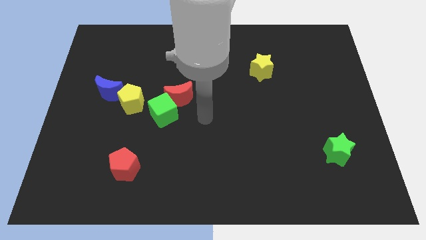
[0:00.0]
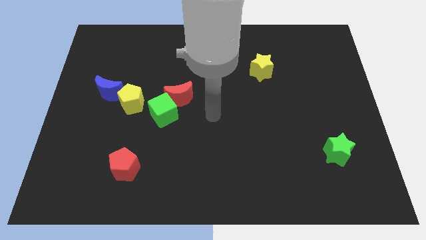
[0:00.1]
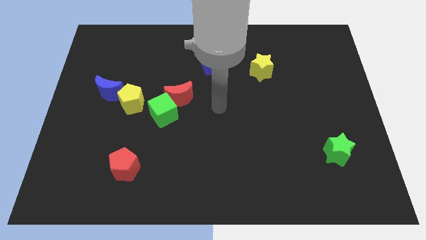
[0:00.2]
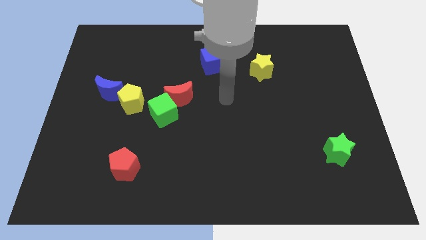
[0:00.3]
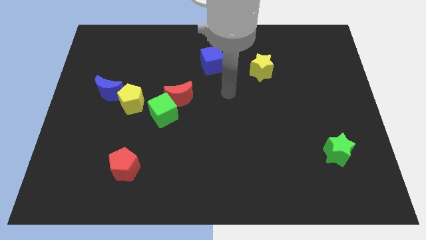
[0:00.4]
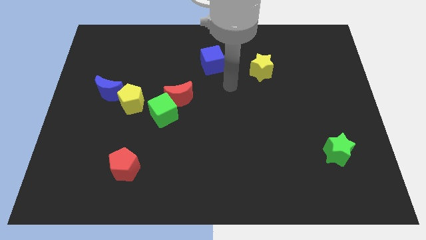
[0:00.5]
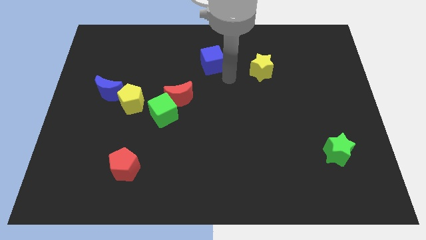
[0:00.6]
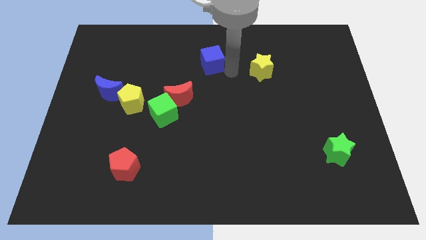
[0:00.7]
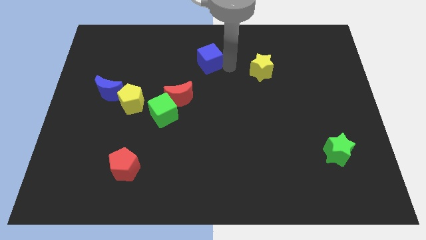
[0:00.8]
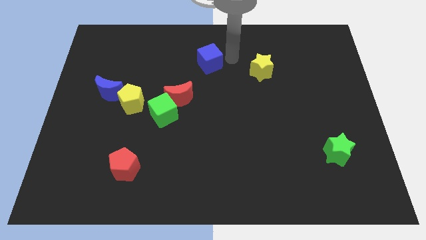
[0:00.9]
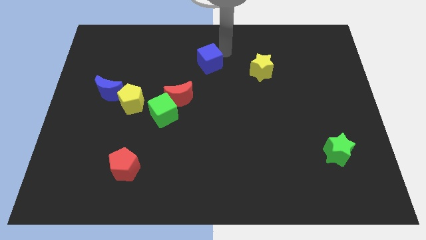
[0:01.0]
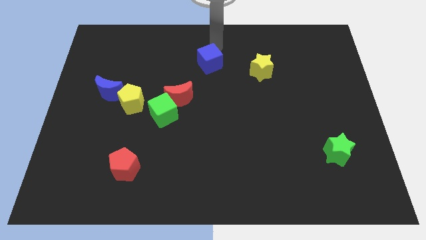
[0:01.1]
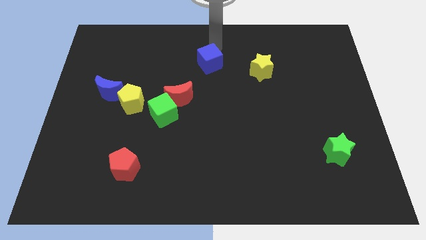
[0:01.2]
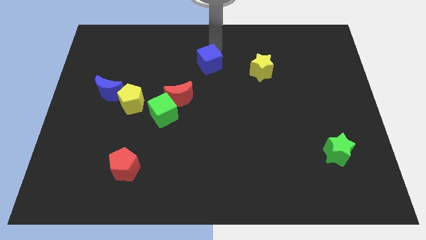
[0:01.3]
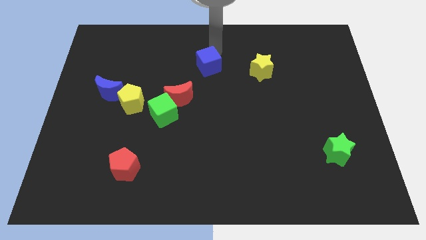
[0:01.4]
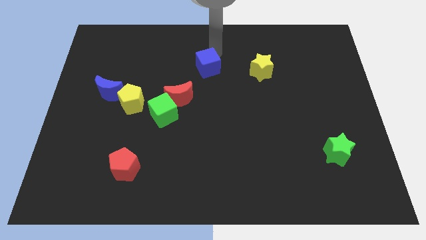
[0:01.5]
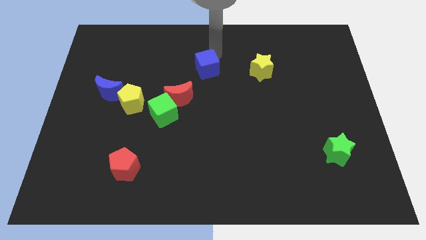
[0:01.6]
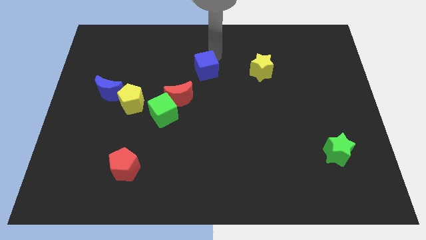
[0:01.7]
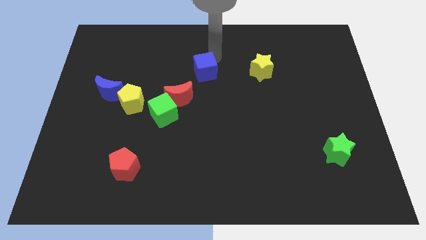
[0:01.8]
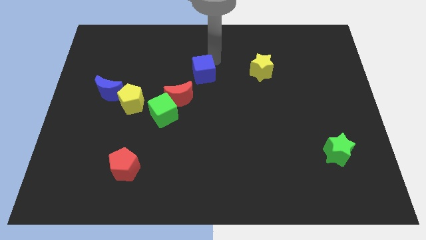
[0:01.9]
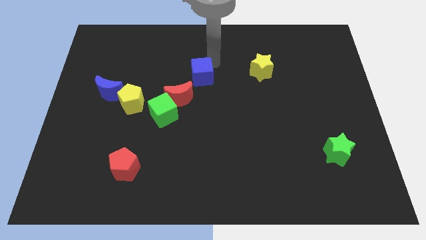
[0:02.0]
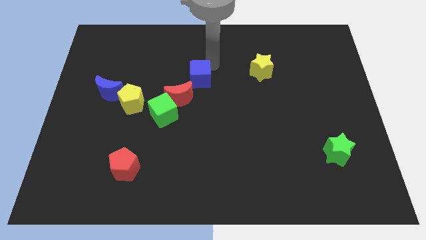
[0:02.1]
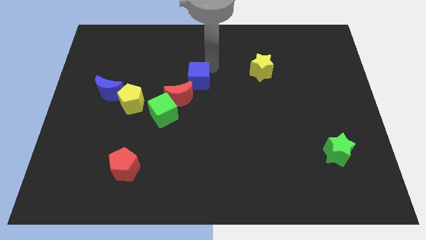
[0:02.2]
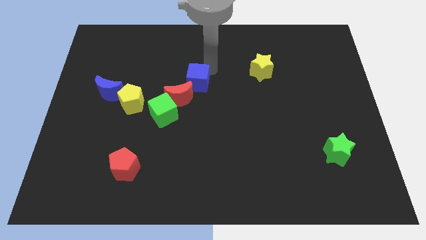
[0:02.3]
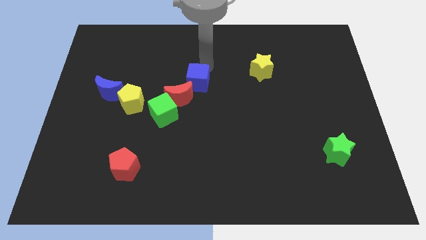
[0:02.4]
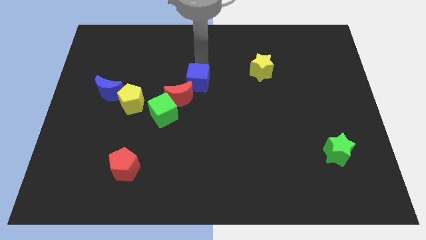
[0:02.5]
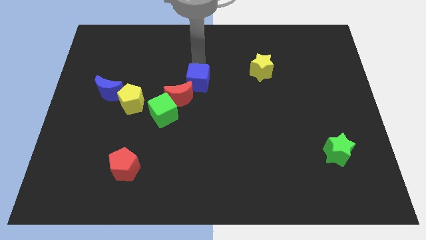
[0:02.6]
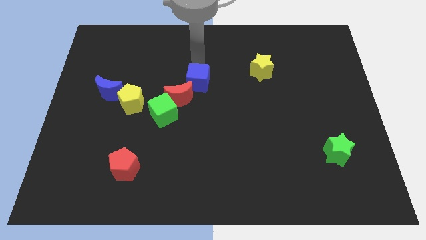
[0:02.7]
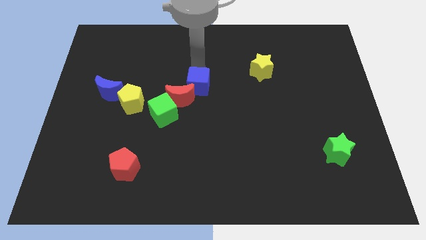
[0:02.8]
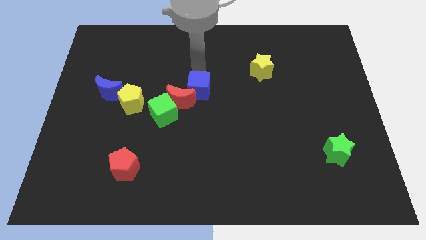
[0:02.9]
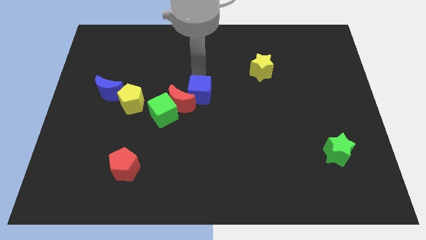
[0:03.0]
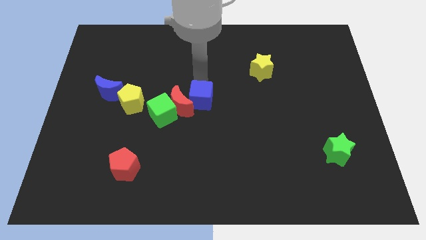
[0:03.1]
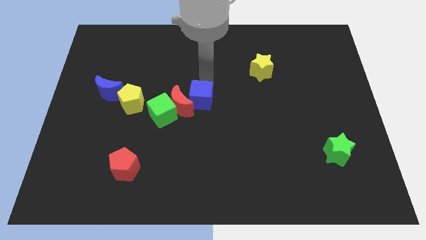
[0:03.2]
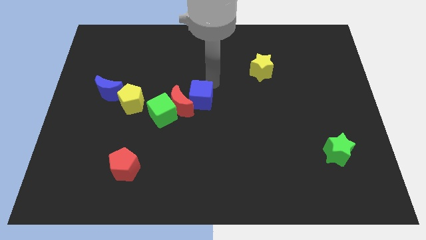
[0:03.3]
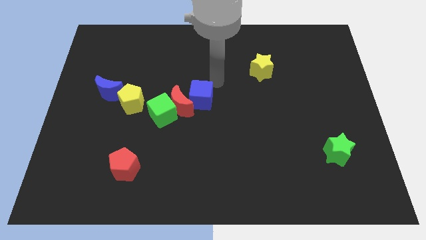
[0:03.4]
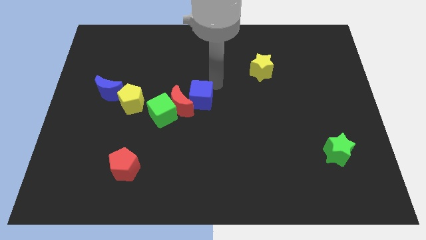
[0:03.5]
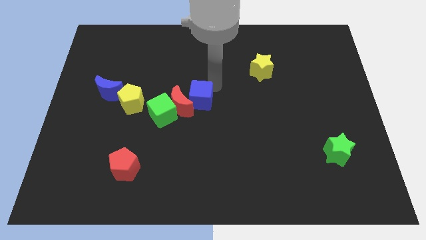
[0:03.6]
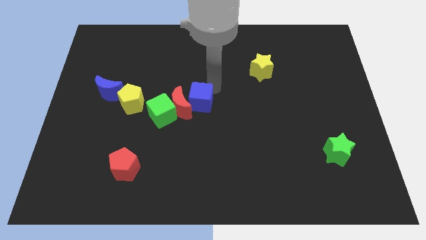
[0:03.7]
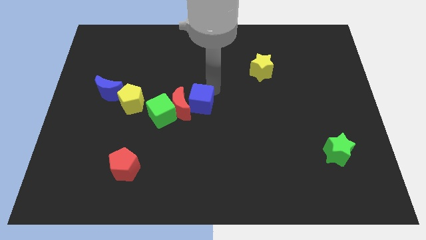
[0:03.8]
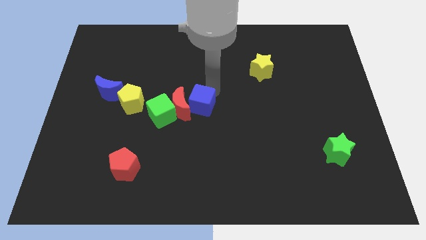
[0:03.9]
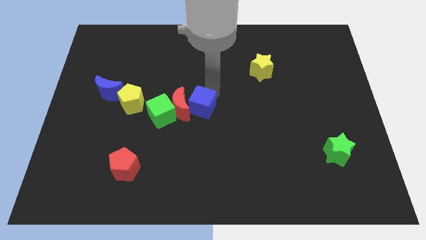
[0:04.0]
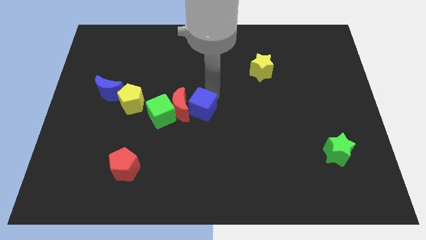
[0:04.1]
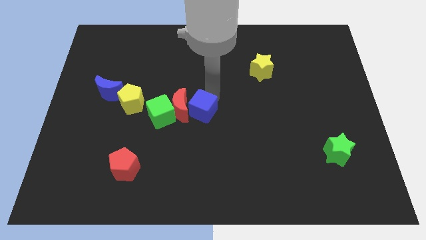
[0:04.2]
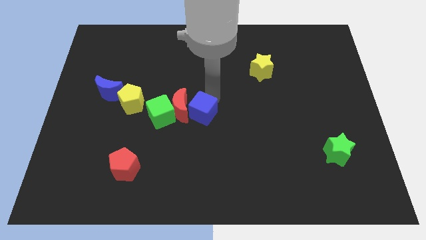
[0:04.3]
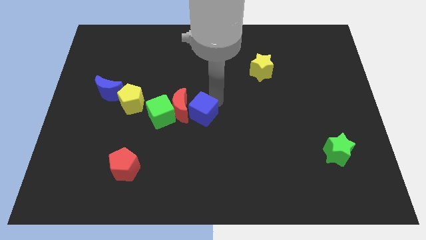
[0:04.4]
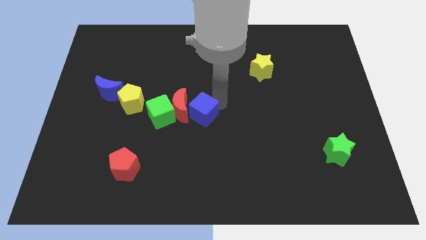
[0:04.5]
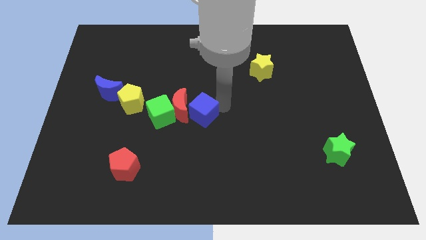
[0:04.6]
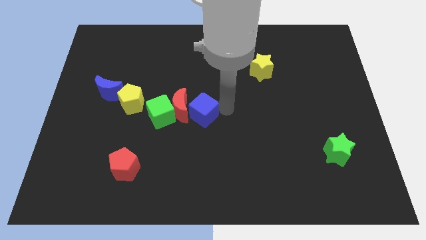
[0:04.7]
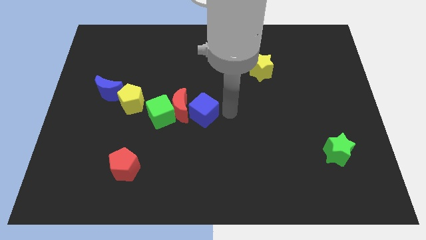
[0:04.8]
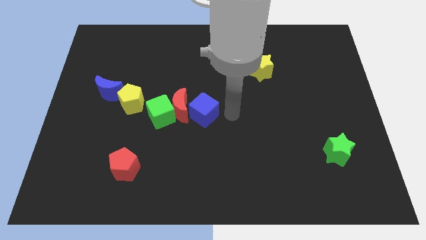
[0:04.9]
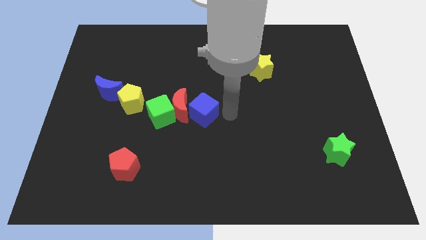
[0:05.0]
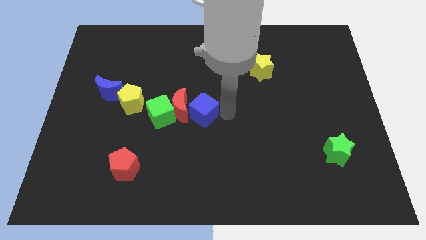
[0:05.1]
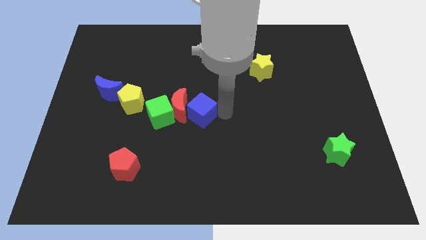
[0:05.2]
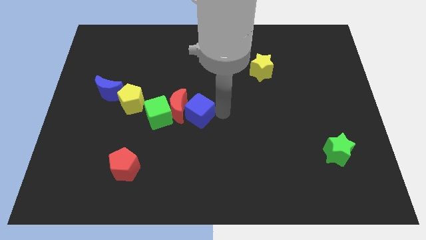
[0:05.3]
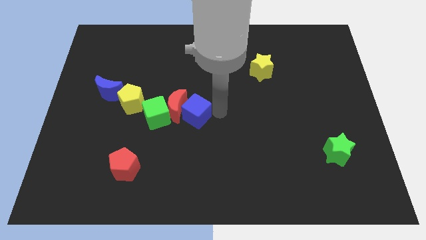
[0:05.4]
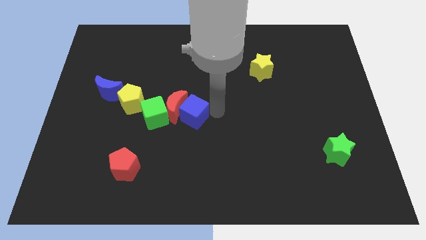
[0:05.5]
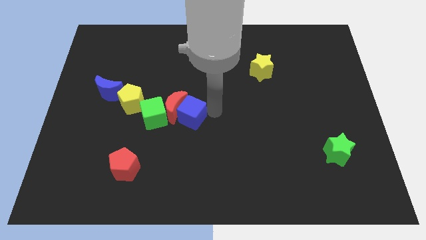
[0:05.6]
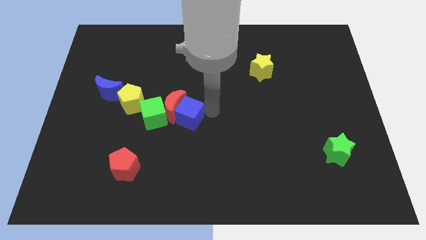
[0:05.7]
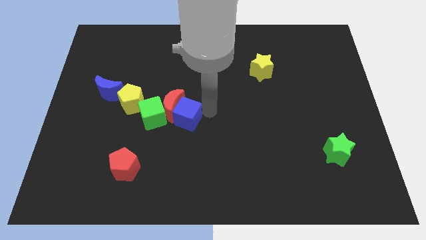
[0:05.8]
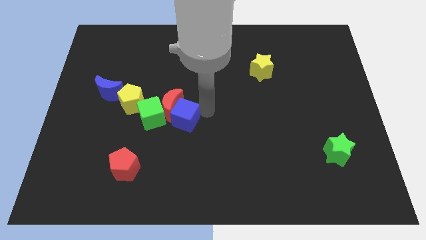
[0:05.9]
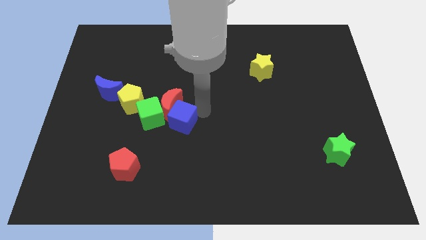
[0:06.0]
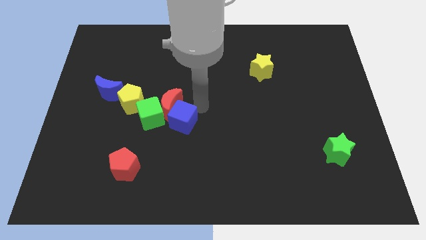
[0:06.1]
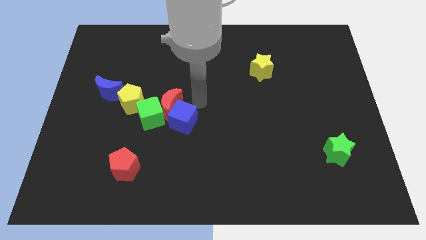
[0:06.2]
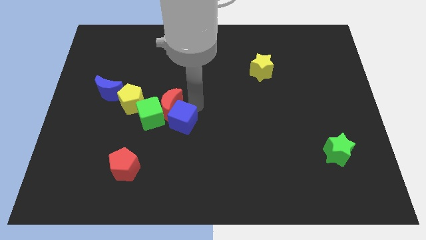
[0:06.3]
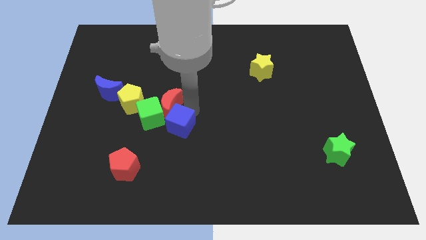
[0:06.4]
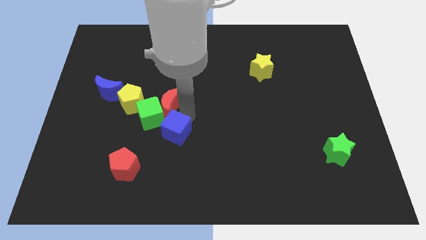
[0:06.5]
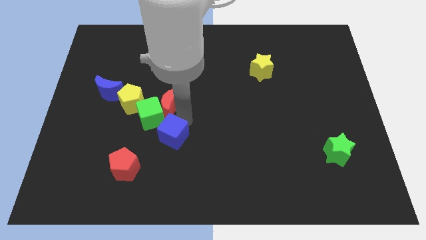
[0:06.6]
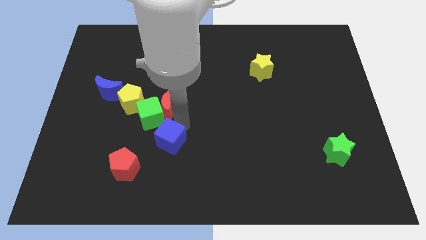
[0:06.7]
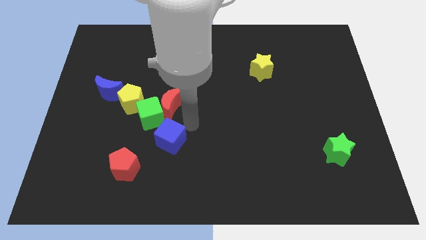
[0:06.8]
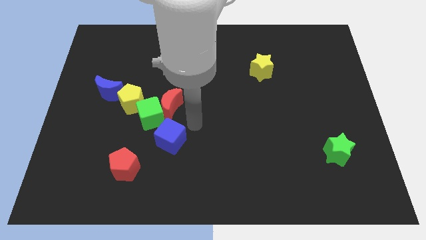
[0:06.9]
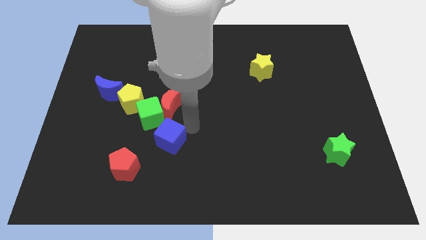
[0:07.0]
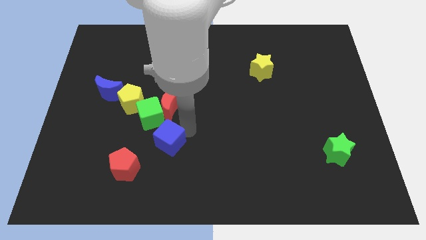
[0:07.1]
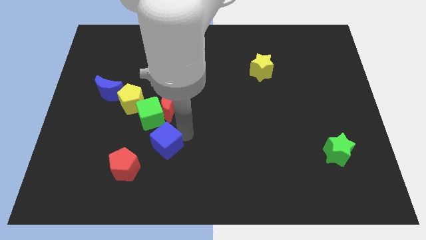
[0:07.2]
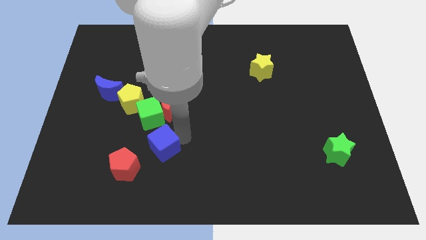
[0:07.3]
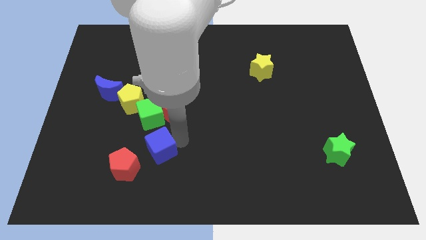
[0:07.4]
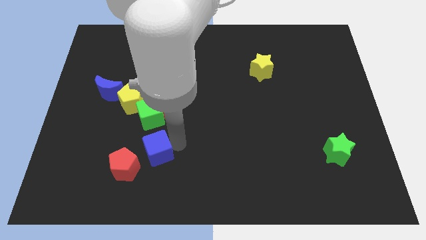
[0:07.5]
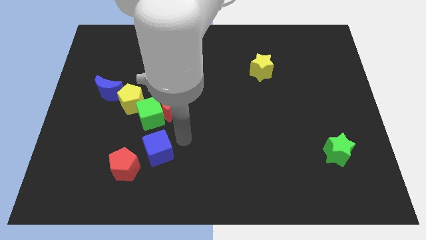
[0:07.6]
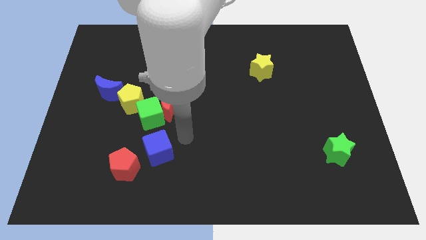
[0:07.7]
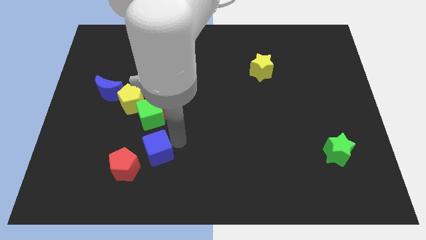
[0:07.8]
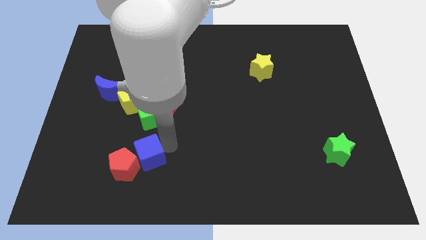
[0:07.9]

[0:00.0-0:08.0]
move the blue cube next to the red pentagon
